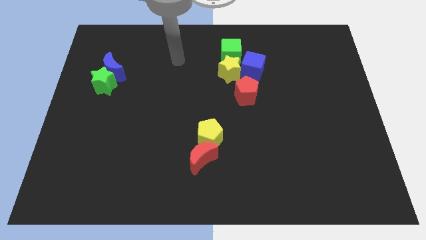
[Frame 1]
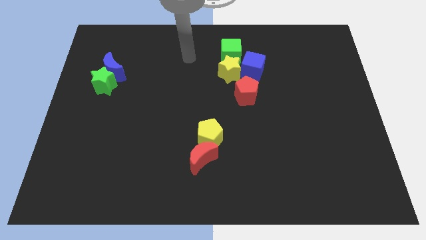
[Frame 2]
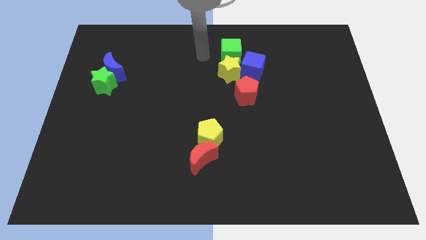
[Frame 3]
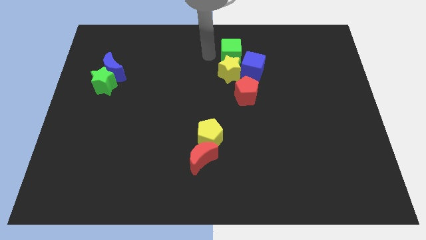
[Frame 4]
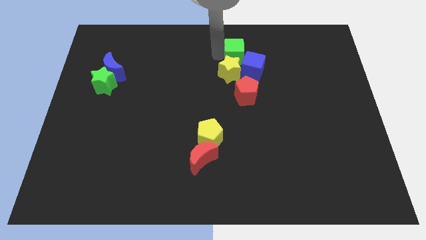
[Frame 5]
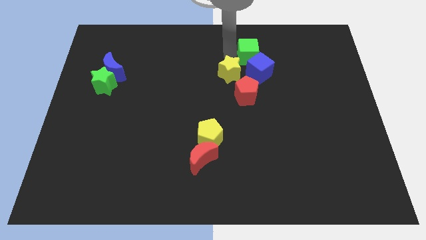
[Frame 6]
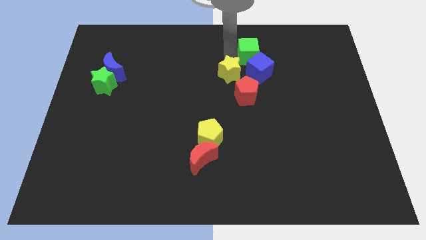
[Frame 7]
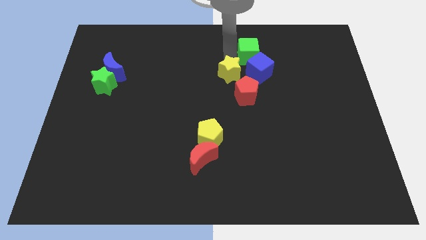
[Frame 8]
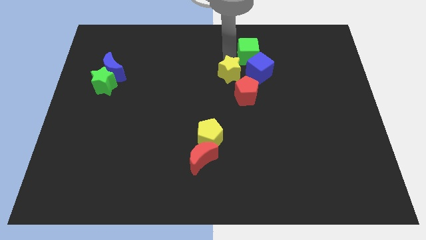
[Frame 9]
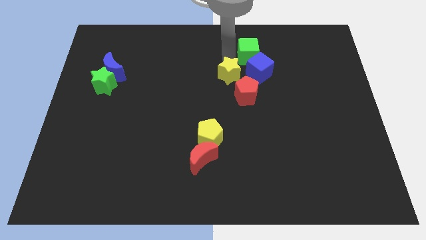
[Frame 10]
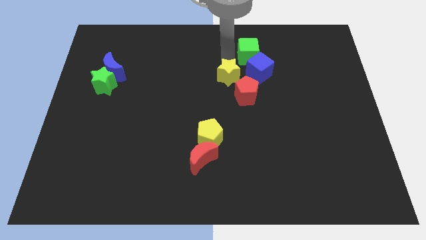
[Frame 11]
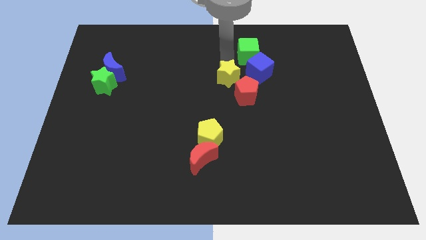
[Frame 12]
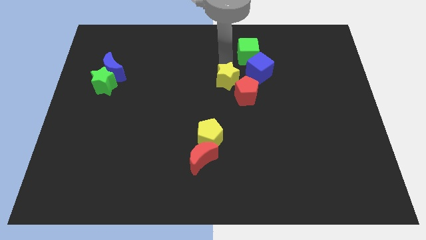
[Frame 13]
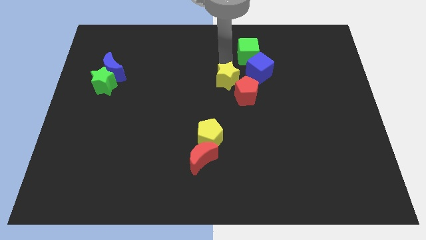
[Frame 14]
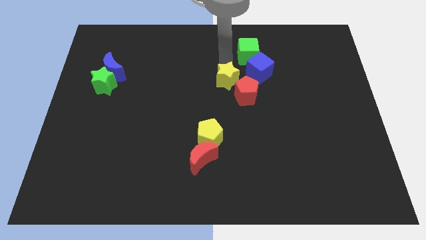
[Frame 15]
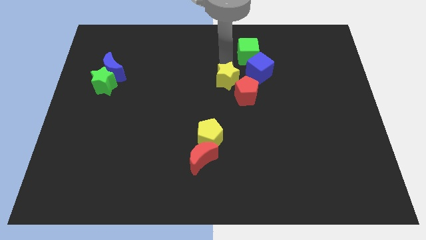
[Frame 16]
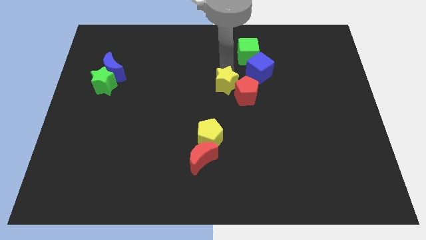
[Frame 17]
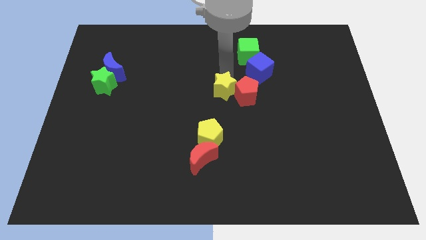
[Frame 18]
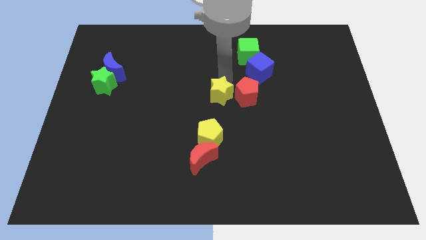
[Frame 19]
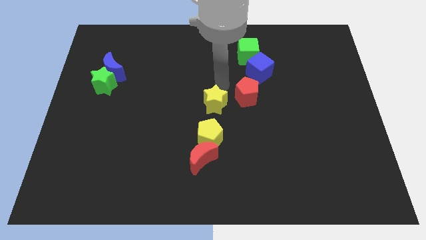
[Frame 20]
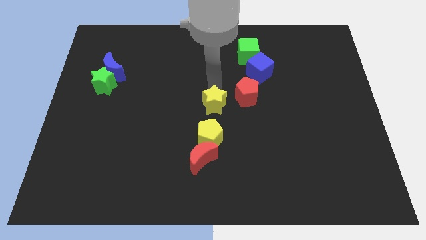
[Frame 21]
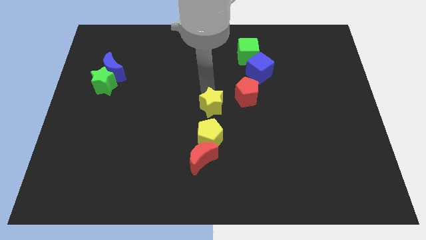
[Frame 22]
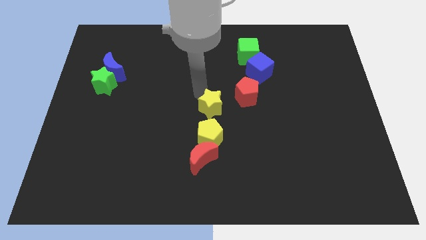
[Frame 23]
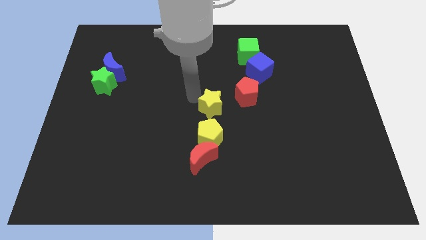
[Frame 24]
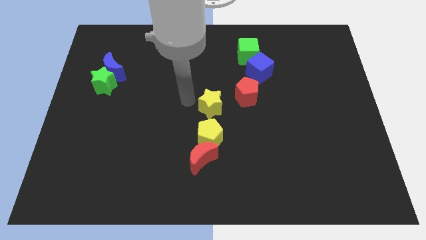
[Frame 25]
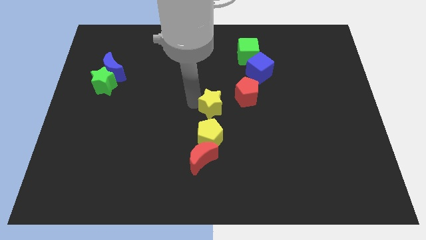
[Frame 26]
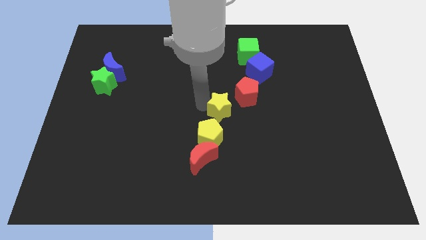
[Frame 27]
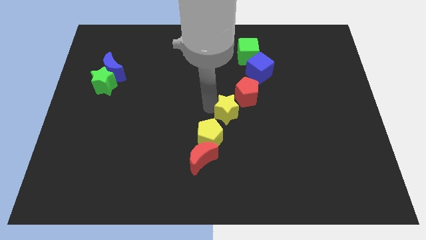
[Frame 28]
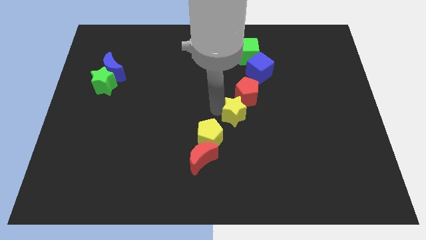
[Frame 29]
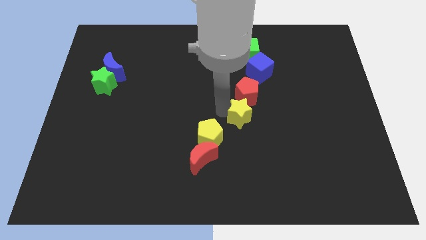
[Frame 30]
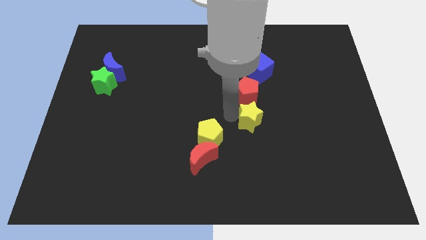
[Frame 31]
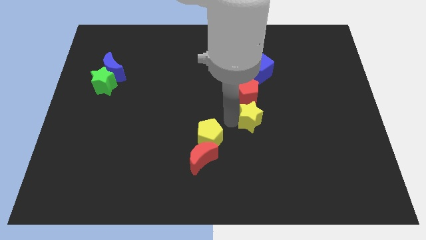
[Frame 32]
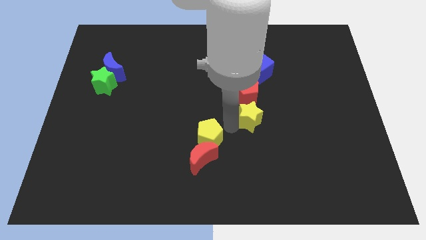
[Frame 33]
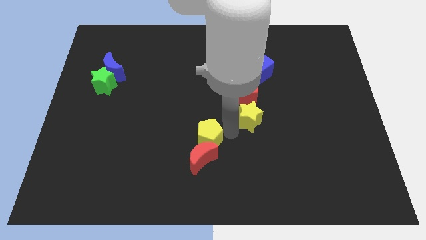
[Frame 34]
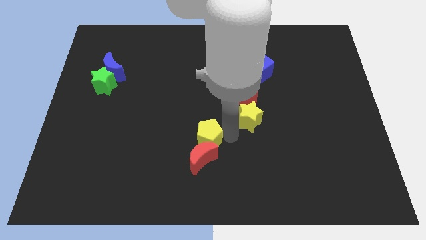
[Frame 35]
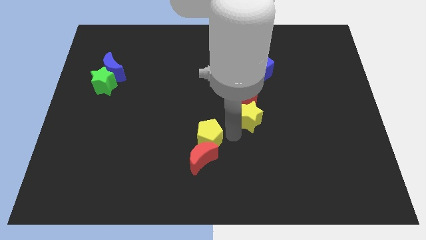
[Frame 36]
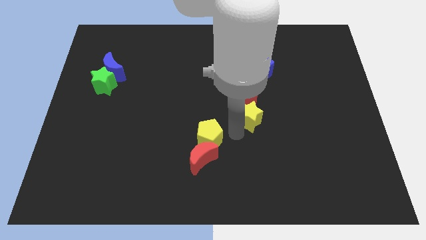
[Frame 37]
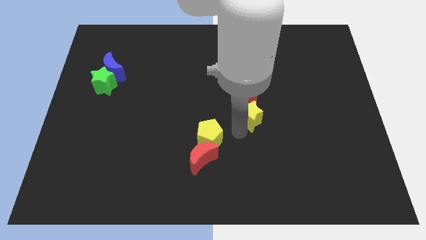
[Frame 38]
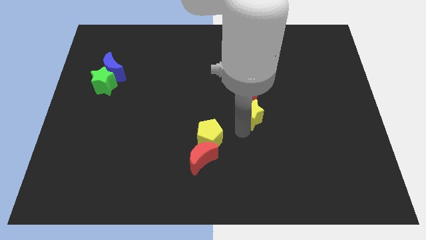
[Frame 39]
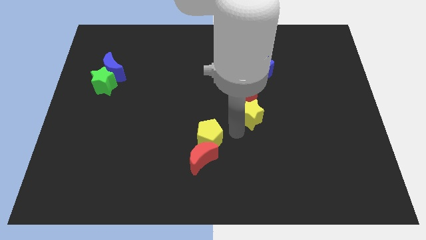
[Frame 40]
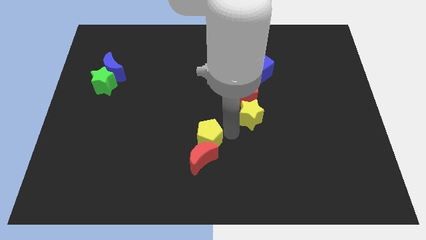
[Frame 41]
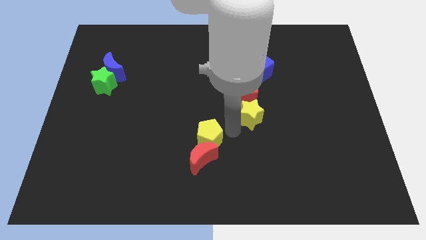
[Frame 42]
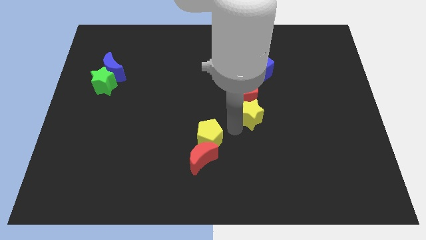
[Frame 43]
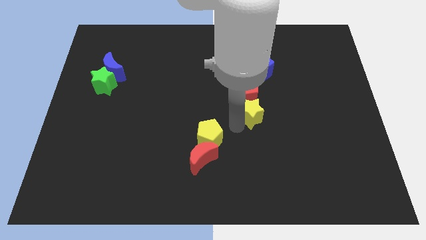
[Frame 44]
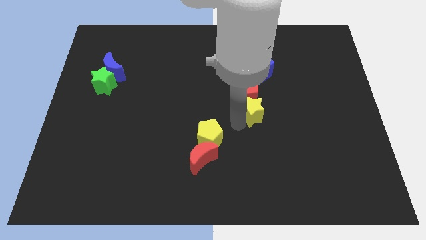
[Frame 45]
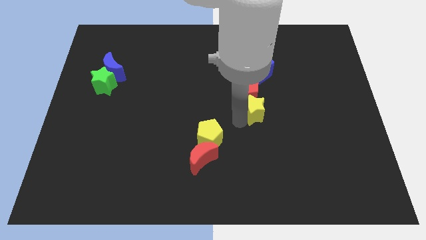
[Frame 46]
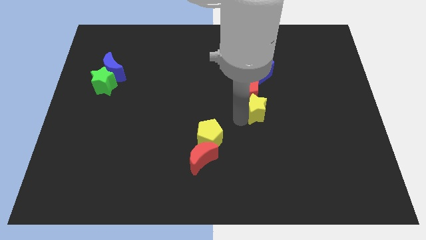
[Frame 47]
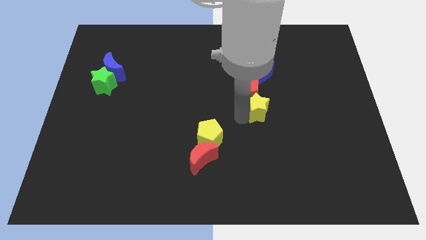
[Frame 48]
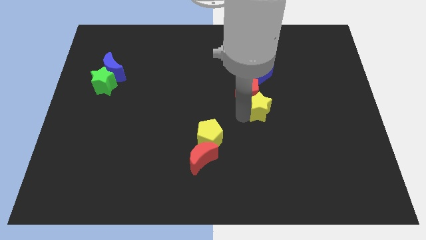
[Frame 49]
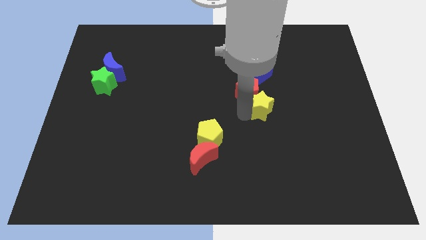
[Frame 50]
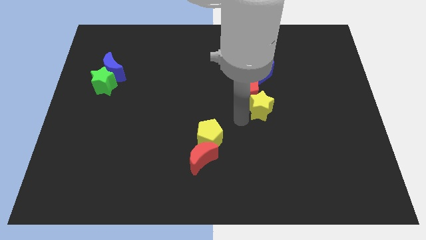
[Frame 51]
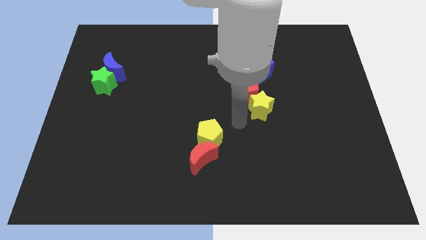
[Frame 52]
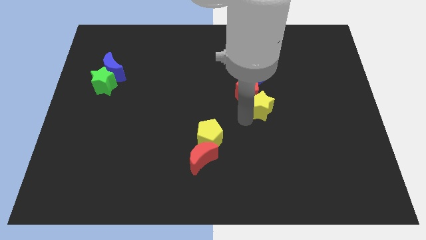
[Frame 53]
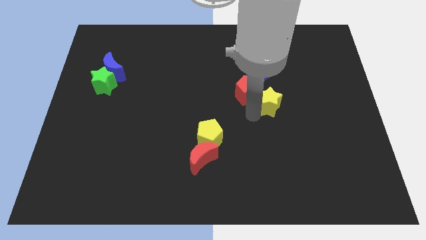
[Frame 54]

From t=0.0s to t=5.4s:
push the yellow star right of the red pentagon

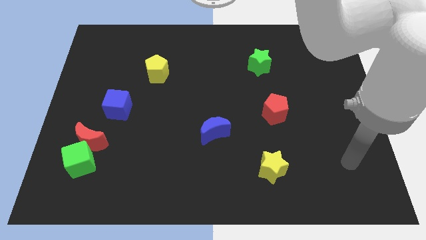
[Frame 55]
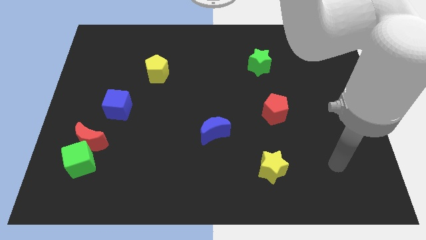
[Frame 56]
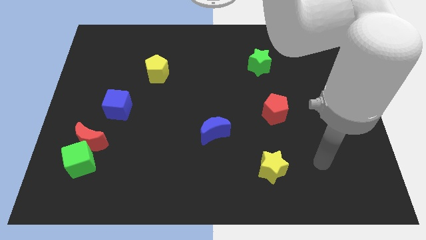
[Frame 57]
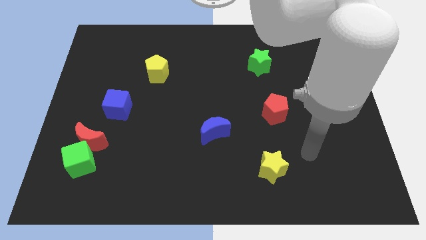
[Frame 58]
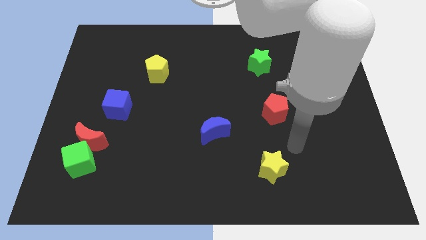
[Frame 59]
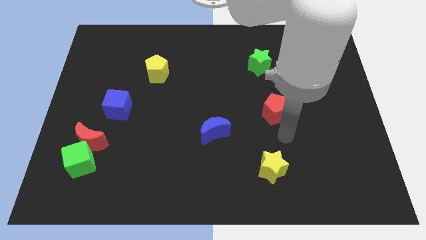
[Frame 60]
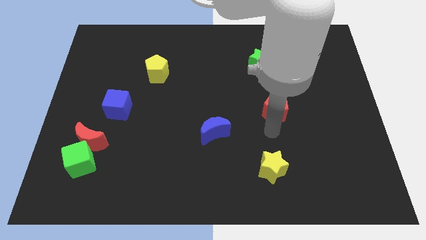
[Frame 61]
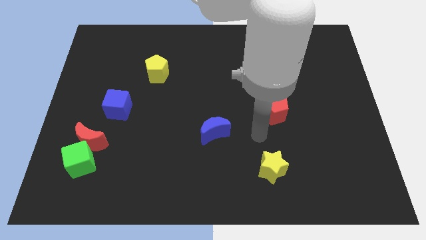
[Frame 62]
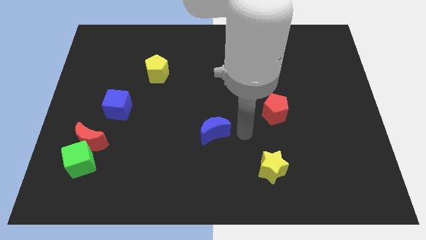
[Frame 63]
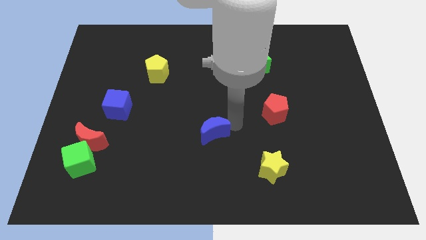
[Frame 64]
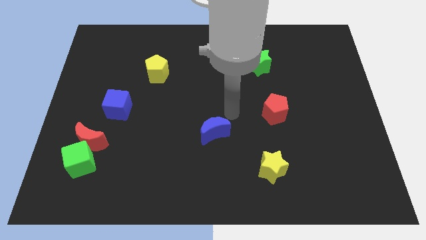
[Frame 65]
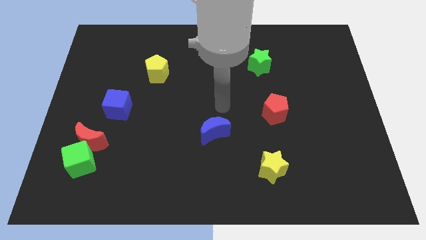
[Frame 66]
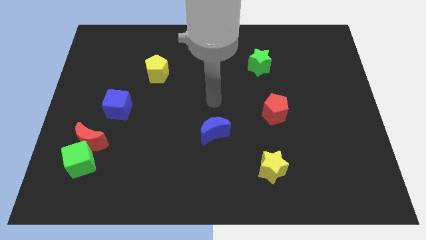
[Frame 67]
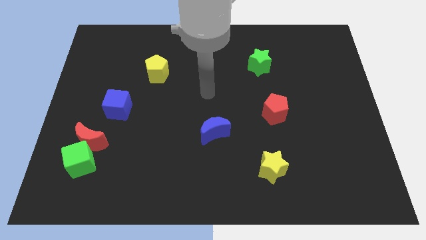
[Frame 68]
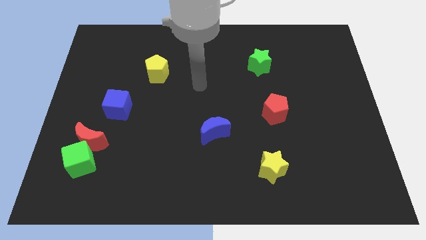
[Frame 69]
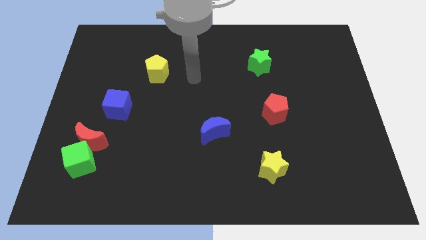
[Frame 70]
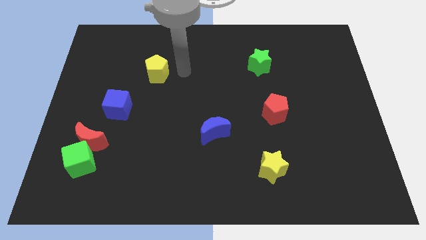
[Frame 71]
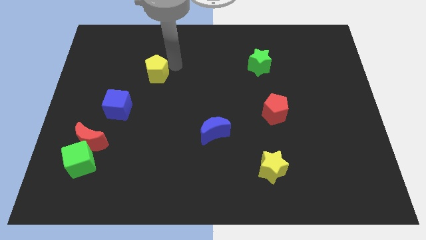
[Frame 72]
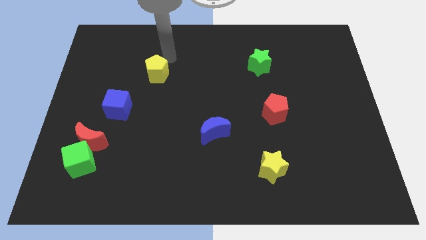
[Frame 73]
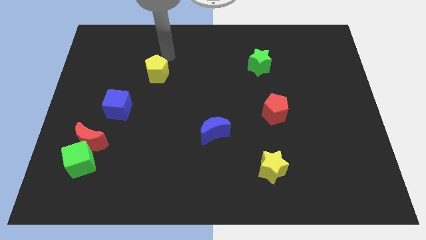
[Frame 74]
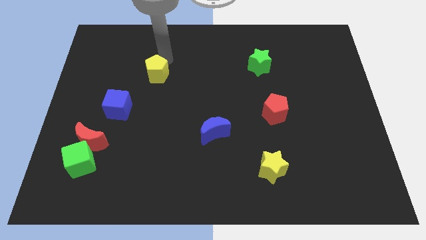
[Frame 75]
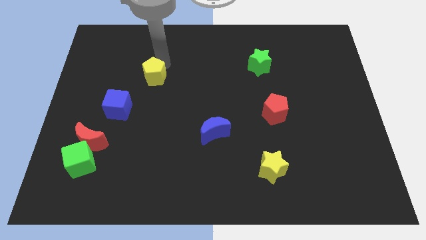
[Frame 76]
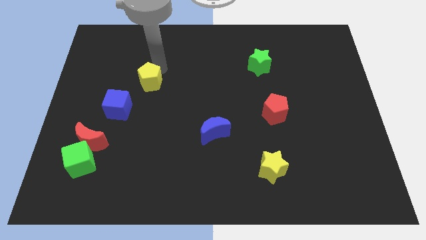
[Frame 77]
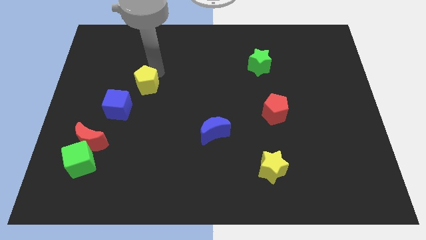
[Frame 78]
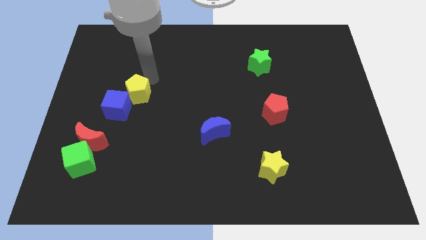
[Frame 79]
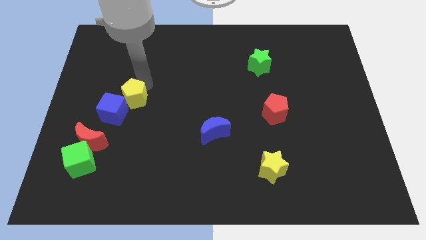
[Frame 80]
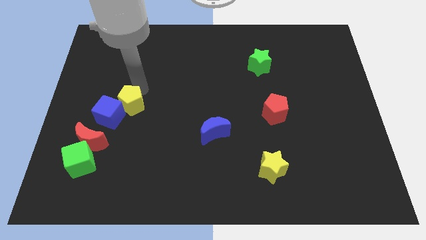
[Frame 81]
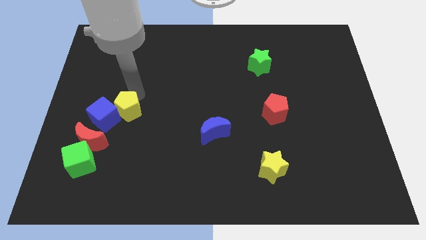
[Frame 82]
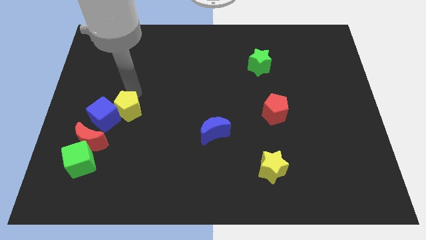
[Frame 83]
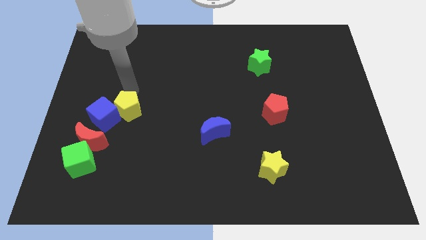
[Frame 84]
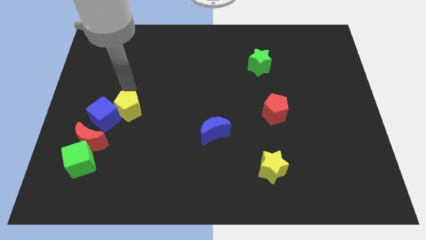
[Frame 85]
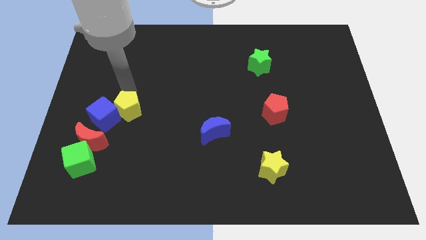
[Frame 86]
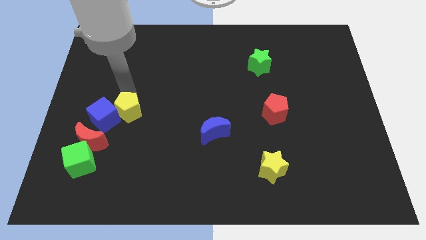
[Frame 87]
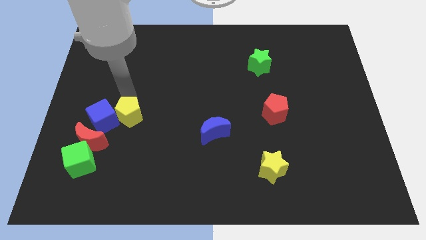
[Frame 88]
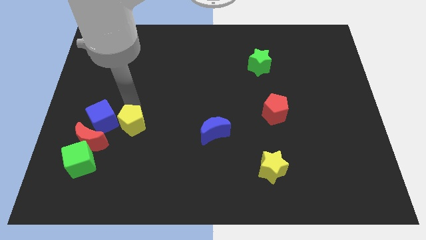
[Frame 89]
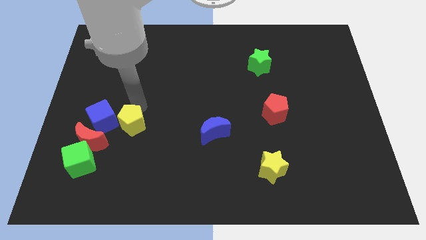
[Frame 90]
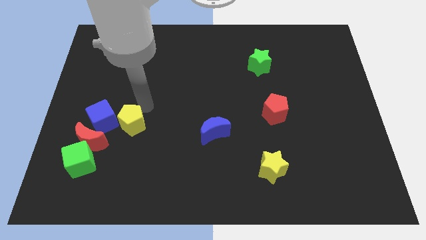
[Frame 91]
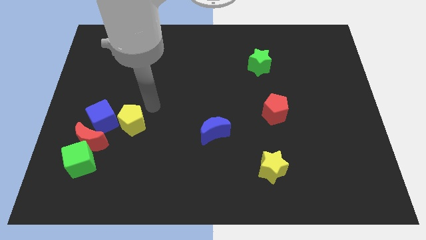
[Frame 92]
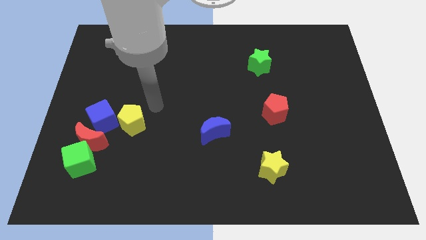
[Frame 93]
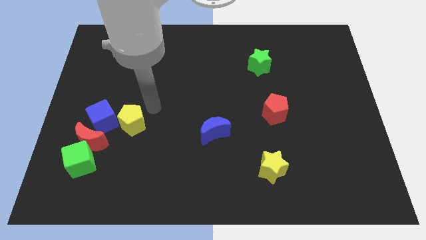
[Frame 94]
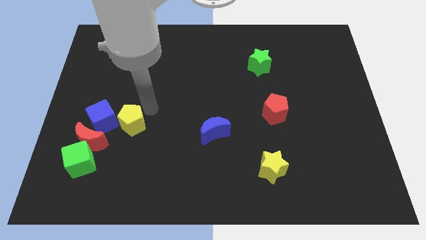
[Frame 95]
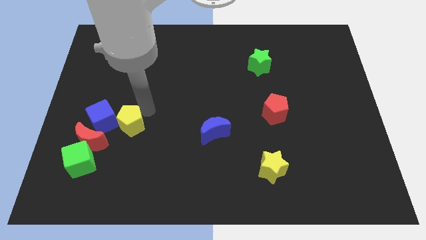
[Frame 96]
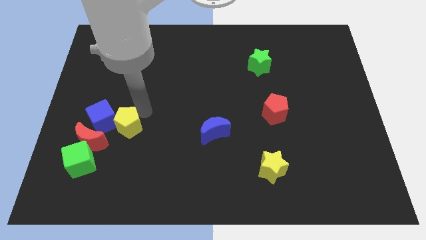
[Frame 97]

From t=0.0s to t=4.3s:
put the yellow pentagon to the top right side of the green cube
